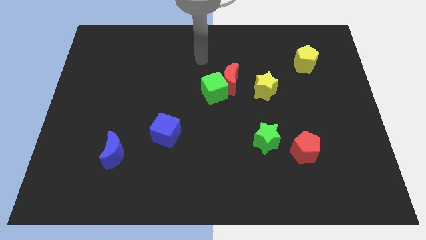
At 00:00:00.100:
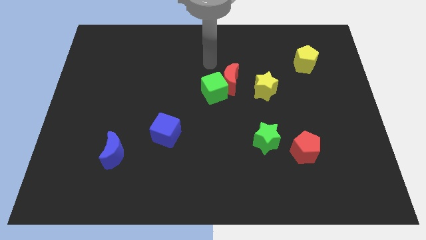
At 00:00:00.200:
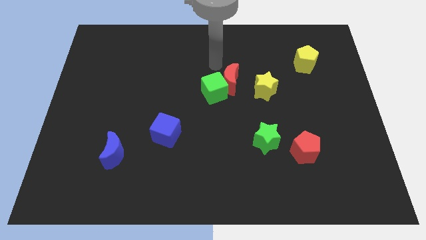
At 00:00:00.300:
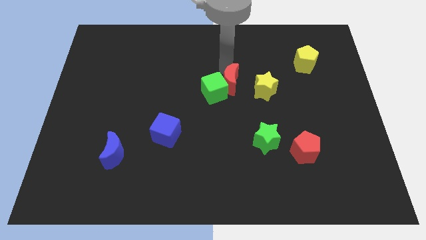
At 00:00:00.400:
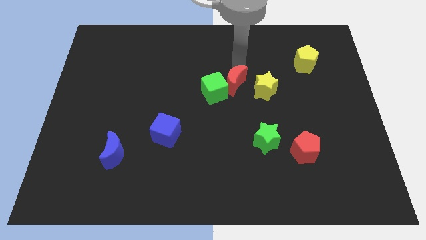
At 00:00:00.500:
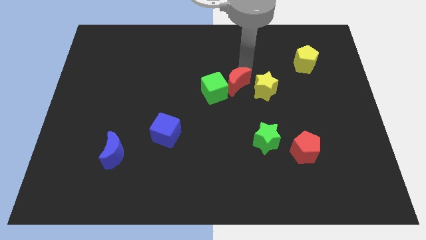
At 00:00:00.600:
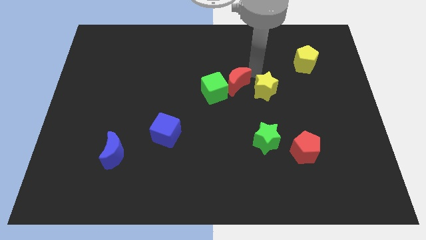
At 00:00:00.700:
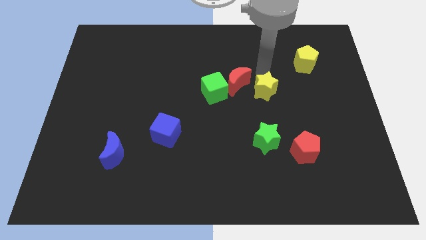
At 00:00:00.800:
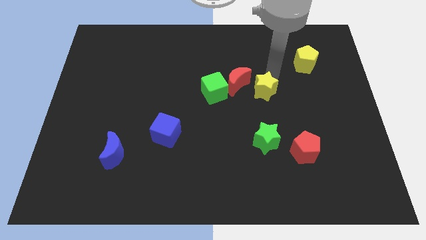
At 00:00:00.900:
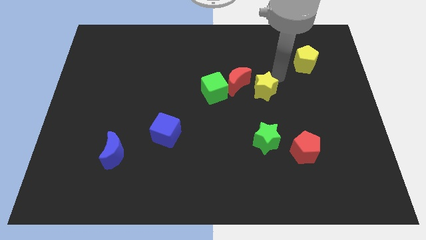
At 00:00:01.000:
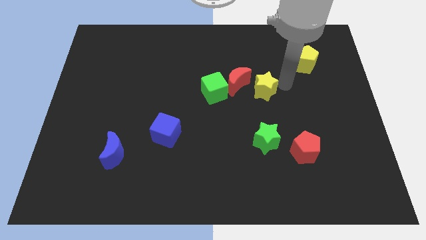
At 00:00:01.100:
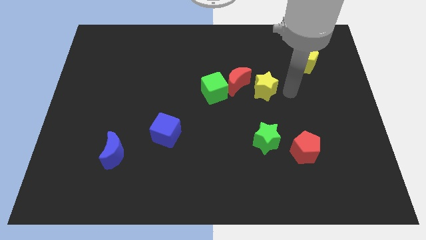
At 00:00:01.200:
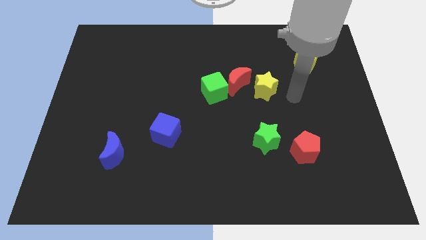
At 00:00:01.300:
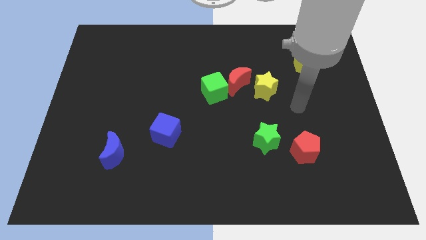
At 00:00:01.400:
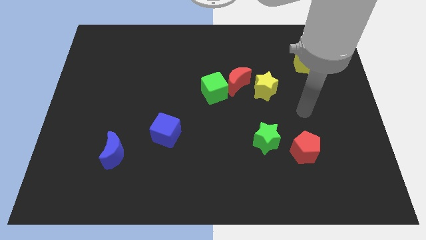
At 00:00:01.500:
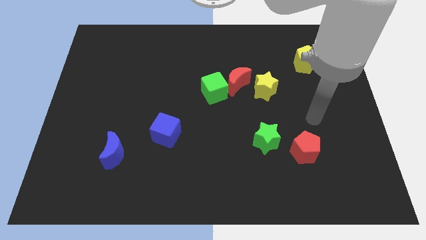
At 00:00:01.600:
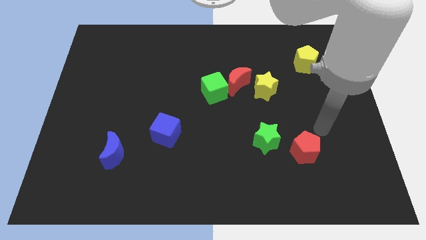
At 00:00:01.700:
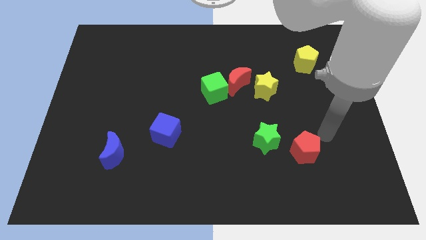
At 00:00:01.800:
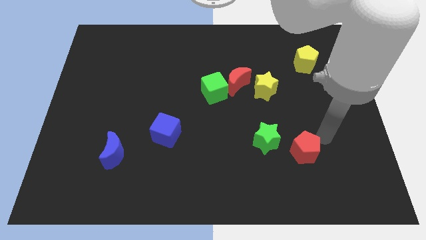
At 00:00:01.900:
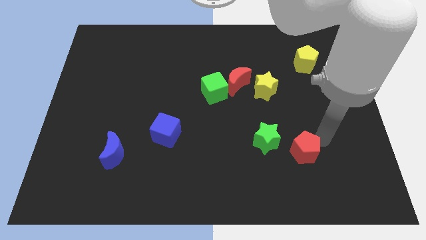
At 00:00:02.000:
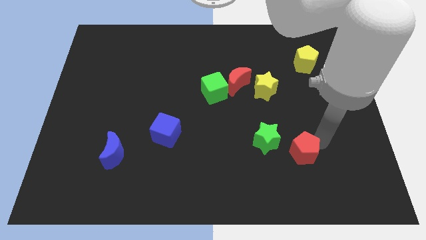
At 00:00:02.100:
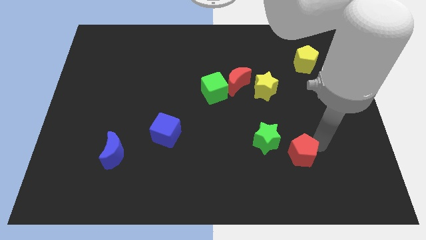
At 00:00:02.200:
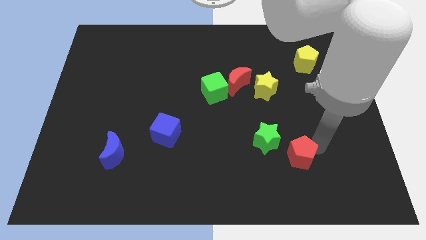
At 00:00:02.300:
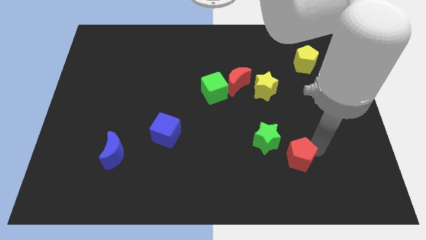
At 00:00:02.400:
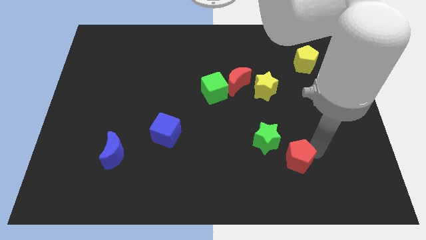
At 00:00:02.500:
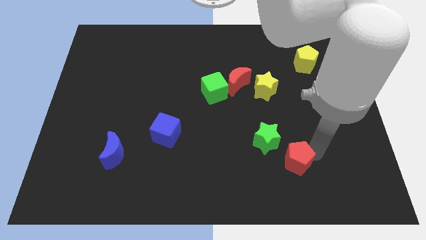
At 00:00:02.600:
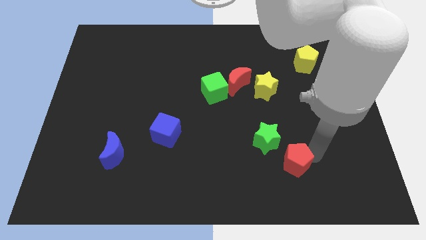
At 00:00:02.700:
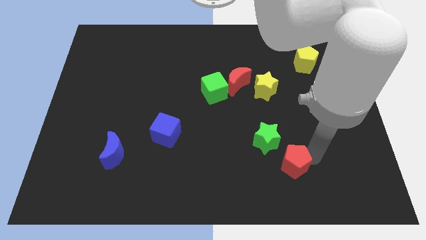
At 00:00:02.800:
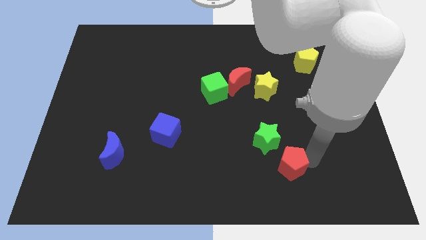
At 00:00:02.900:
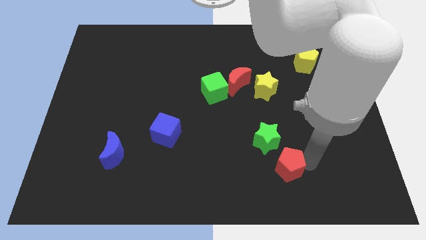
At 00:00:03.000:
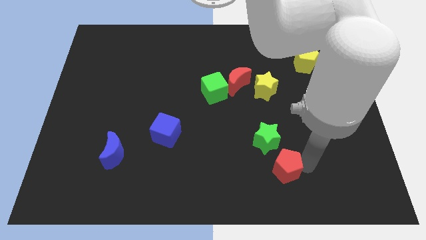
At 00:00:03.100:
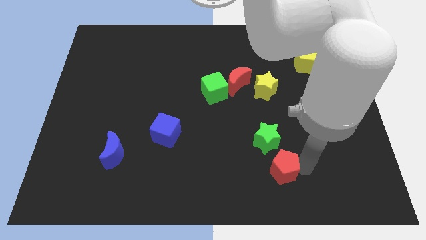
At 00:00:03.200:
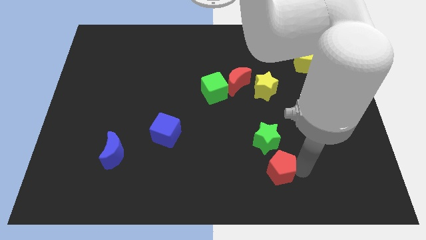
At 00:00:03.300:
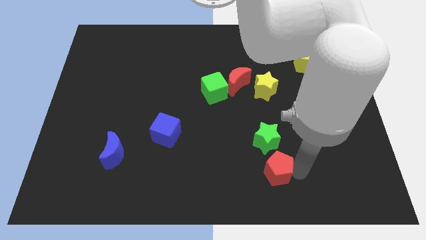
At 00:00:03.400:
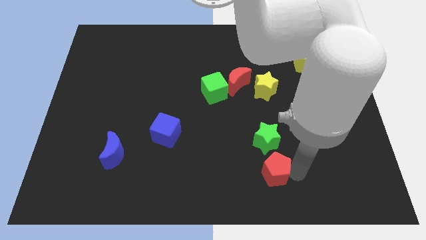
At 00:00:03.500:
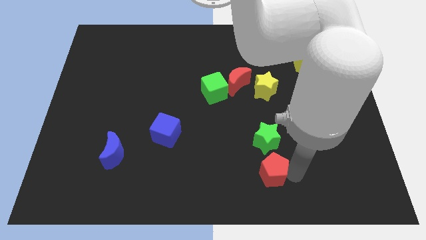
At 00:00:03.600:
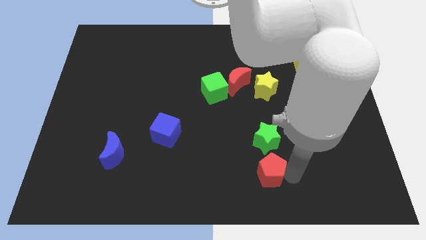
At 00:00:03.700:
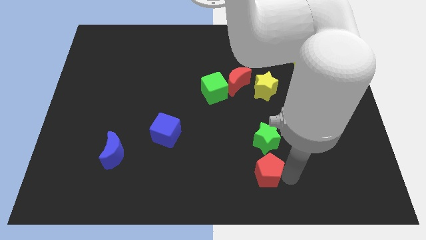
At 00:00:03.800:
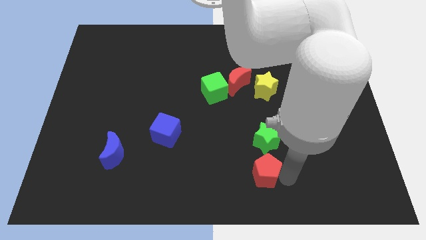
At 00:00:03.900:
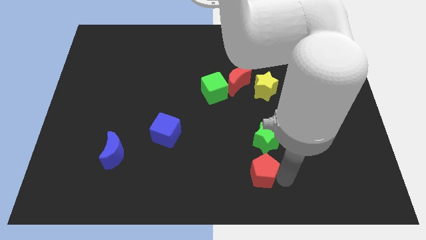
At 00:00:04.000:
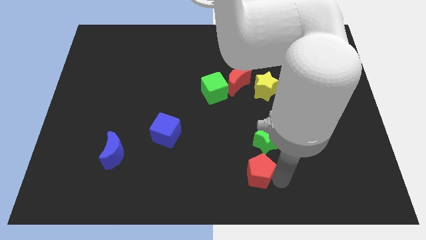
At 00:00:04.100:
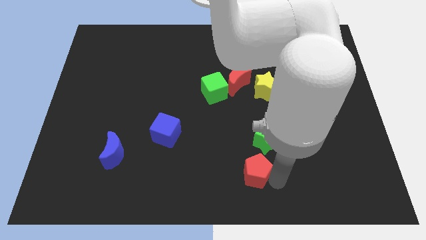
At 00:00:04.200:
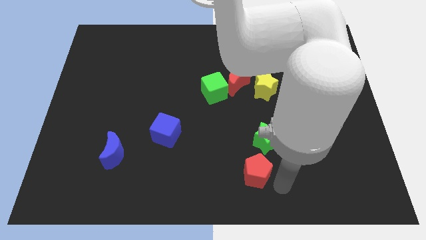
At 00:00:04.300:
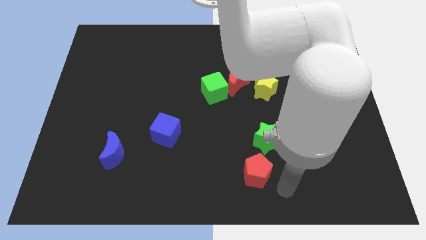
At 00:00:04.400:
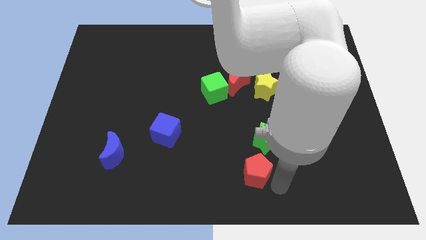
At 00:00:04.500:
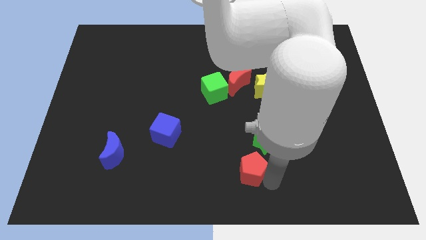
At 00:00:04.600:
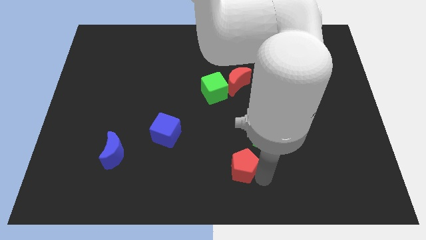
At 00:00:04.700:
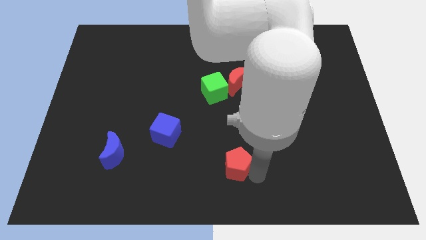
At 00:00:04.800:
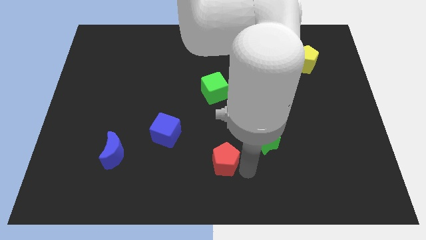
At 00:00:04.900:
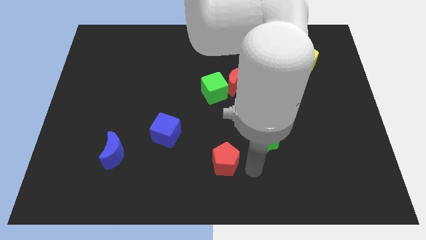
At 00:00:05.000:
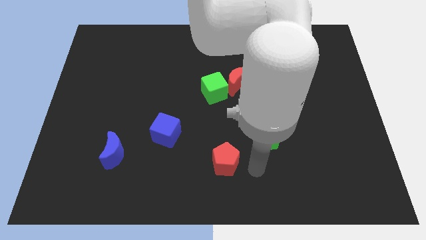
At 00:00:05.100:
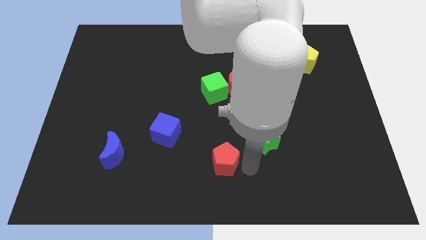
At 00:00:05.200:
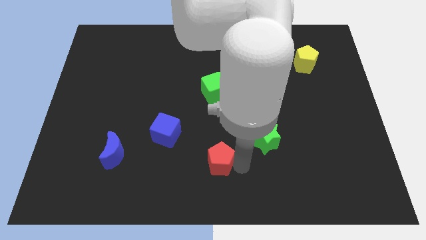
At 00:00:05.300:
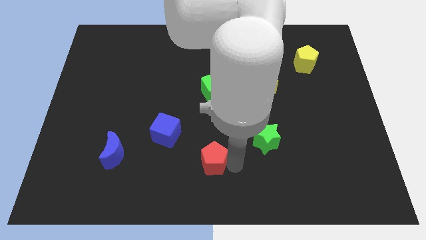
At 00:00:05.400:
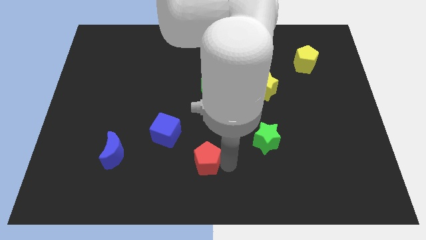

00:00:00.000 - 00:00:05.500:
push the red pentagon left

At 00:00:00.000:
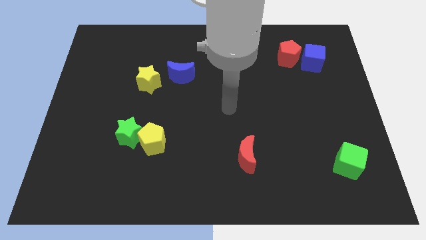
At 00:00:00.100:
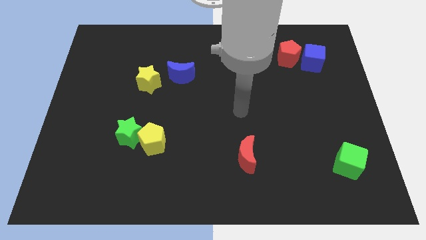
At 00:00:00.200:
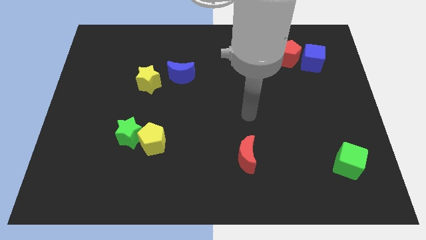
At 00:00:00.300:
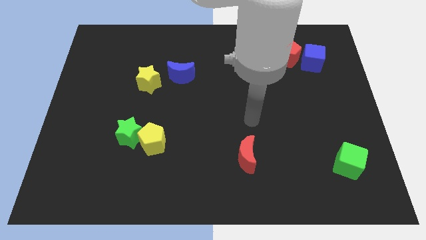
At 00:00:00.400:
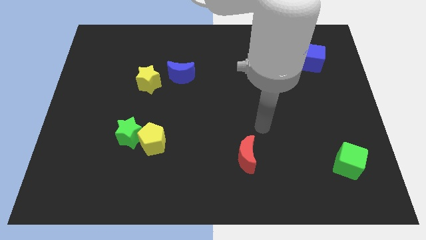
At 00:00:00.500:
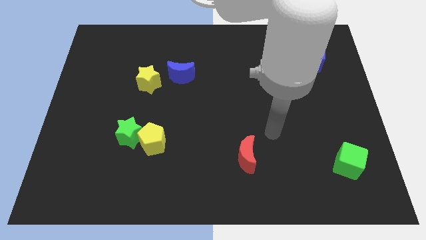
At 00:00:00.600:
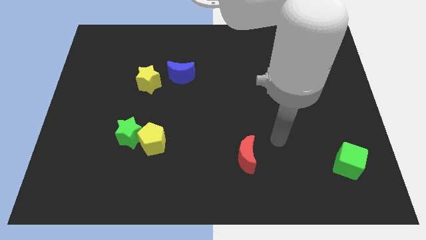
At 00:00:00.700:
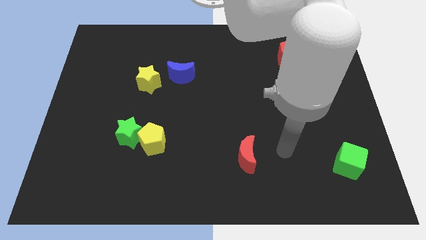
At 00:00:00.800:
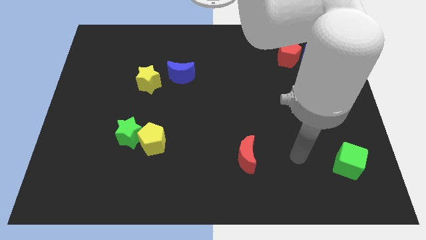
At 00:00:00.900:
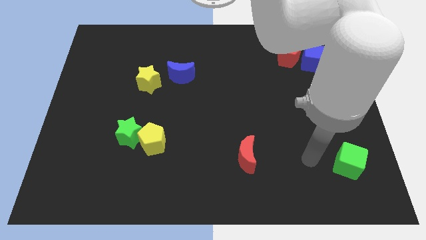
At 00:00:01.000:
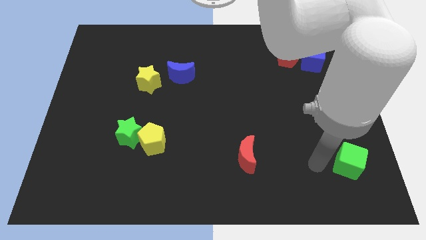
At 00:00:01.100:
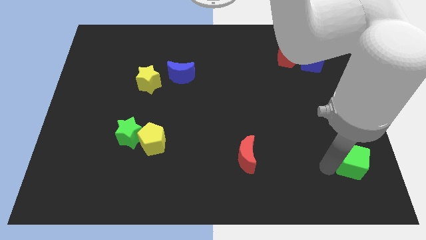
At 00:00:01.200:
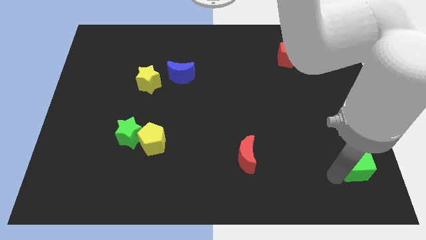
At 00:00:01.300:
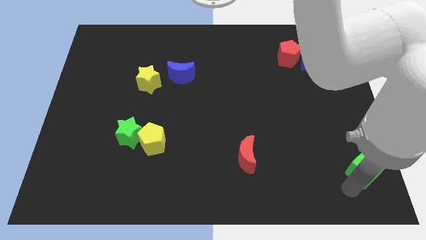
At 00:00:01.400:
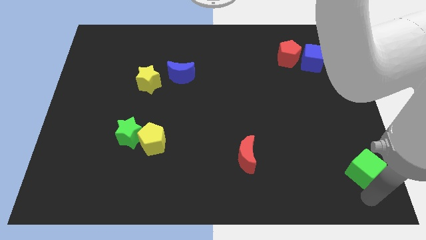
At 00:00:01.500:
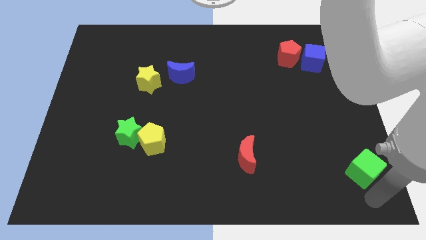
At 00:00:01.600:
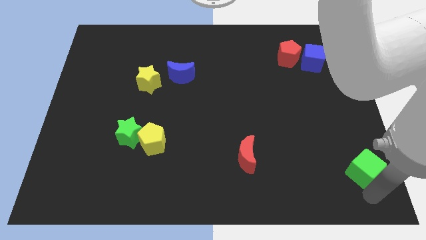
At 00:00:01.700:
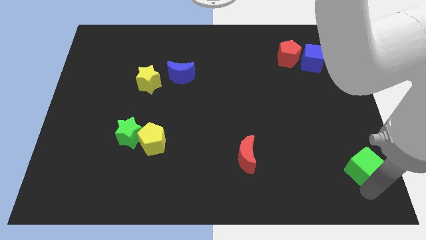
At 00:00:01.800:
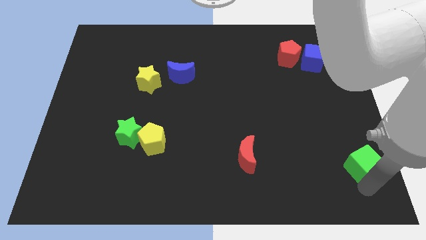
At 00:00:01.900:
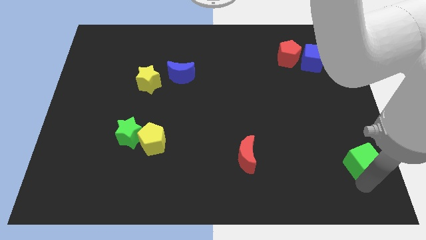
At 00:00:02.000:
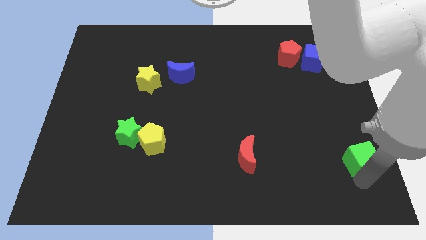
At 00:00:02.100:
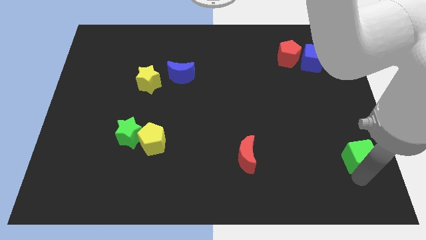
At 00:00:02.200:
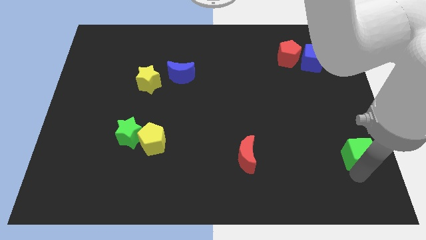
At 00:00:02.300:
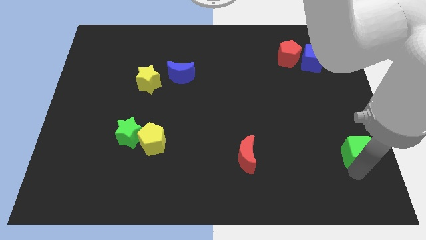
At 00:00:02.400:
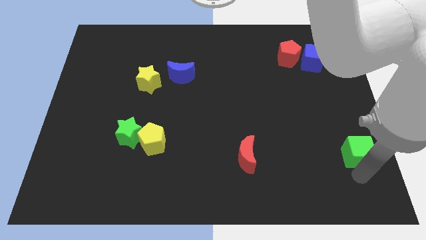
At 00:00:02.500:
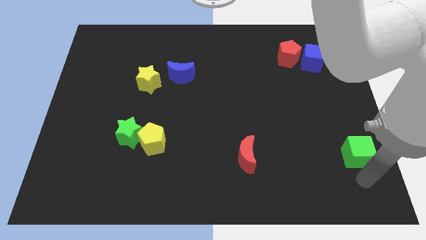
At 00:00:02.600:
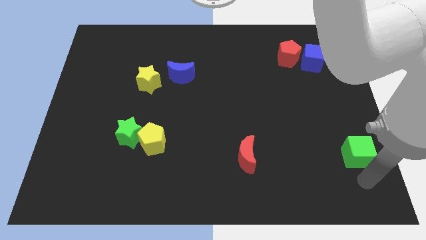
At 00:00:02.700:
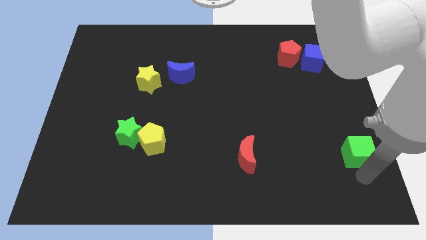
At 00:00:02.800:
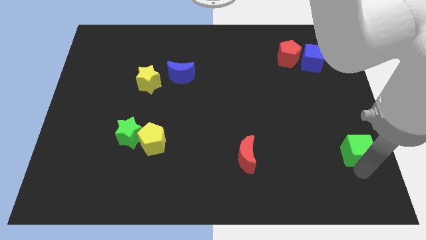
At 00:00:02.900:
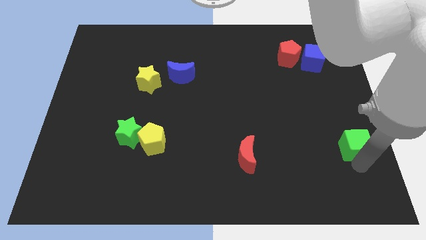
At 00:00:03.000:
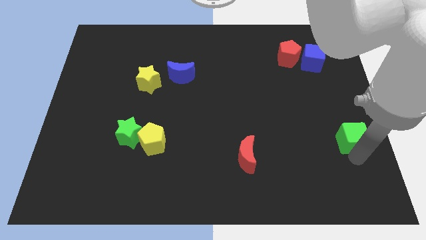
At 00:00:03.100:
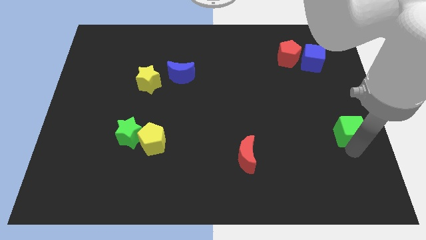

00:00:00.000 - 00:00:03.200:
slide the green cube a little upwards
